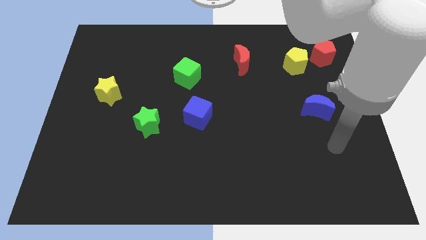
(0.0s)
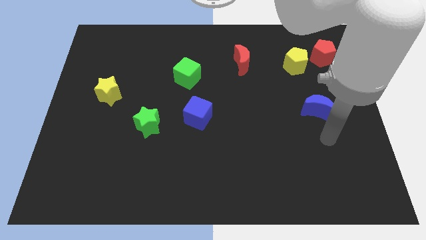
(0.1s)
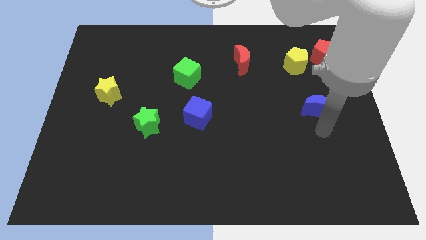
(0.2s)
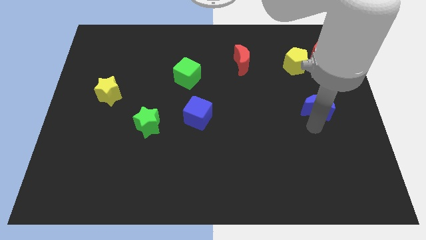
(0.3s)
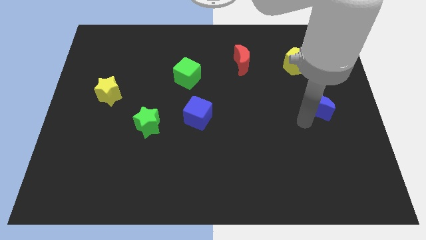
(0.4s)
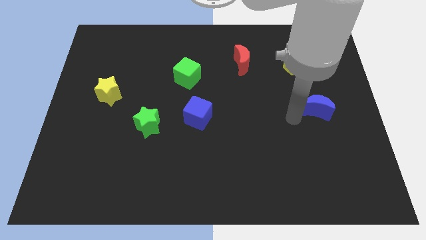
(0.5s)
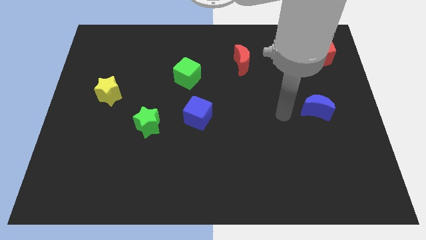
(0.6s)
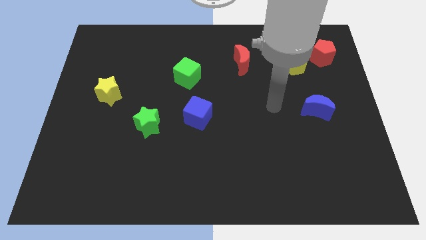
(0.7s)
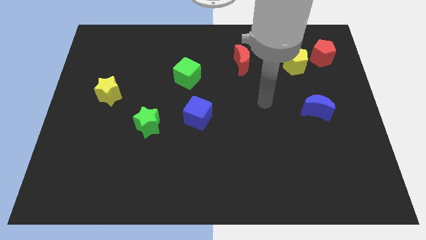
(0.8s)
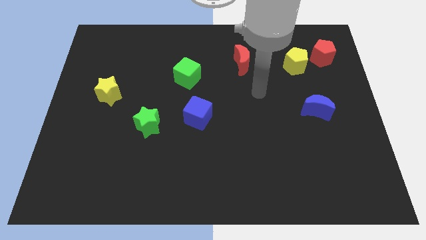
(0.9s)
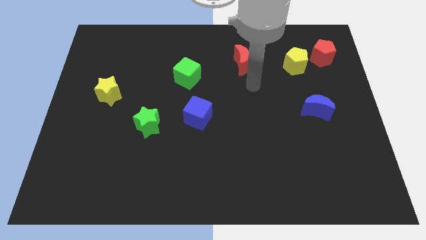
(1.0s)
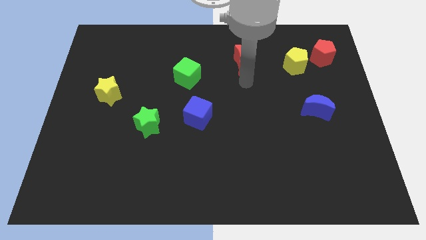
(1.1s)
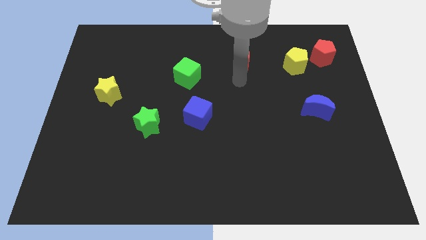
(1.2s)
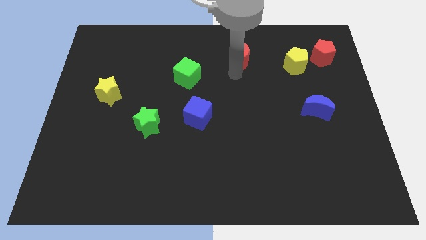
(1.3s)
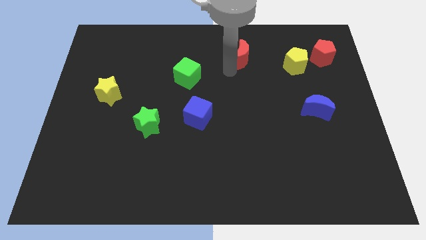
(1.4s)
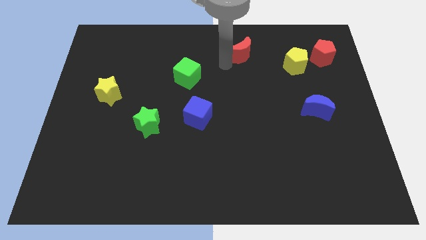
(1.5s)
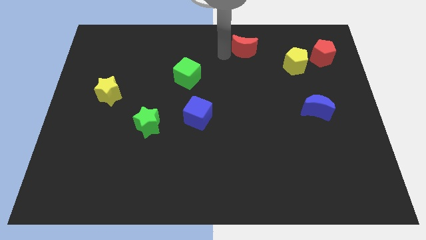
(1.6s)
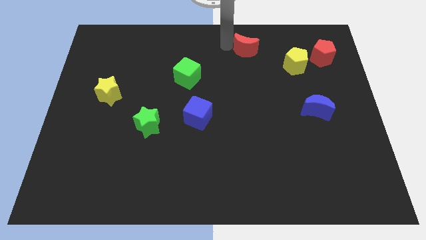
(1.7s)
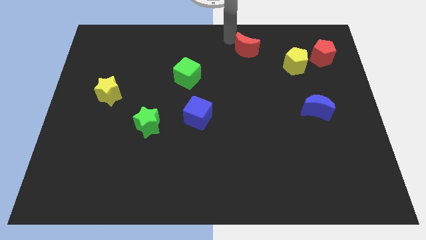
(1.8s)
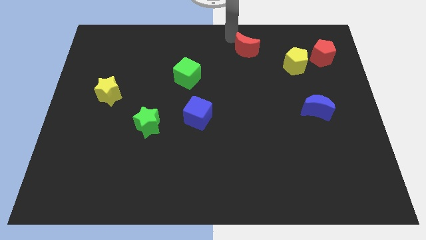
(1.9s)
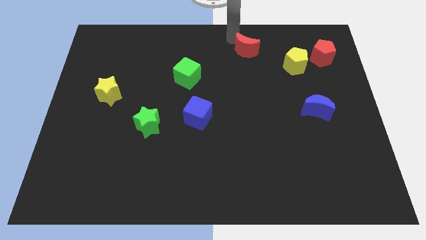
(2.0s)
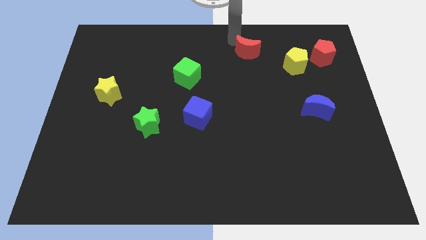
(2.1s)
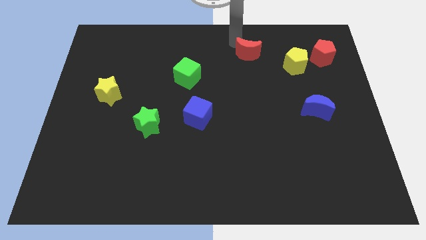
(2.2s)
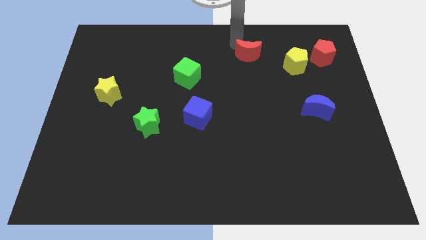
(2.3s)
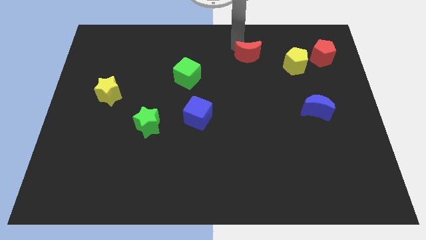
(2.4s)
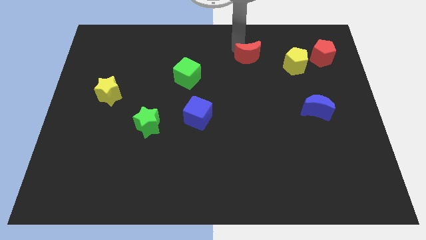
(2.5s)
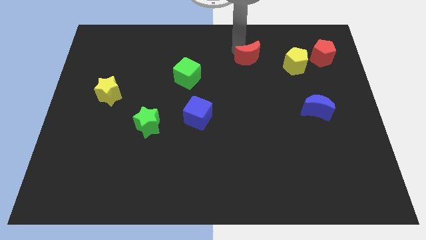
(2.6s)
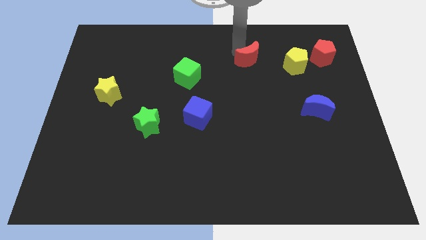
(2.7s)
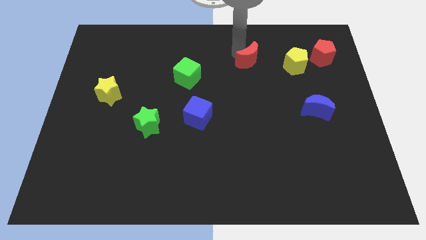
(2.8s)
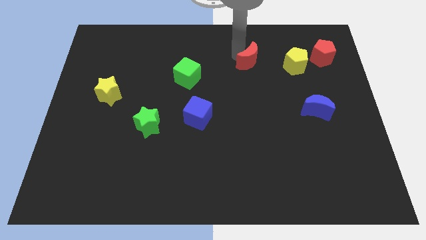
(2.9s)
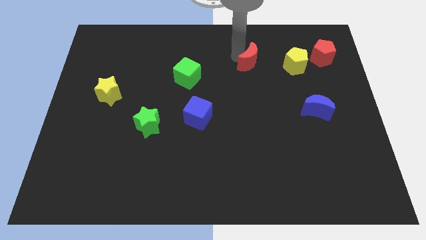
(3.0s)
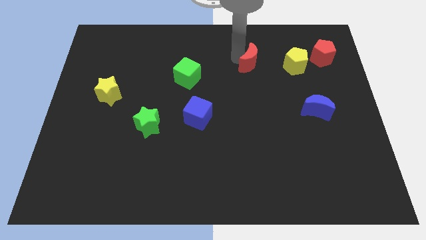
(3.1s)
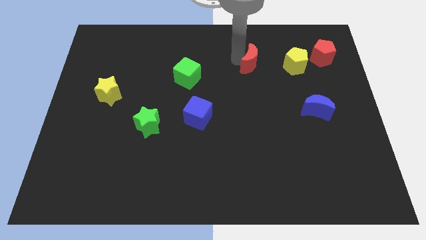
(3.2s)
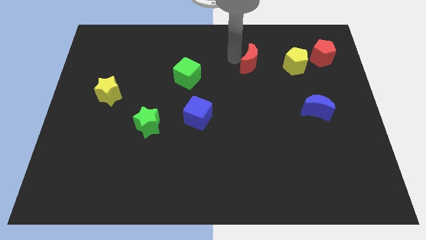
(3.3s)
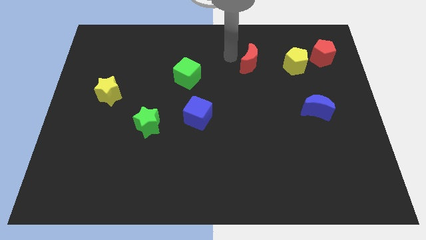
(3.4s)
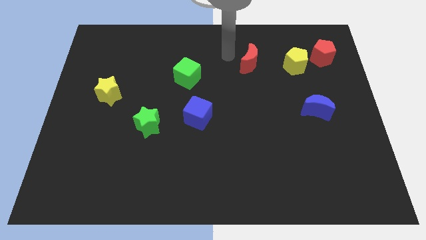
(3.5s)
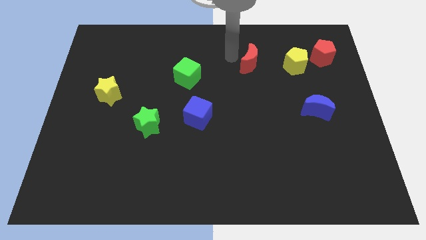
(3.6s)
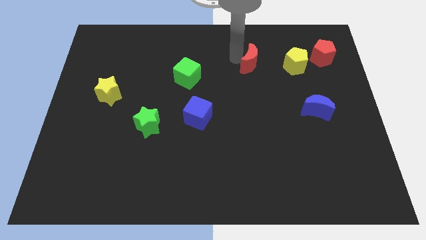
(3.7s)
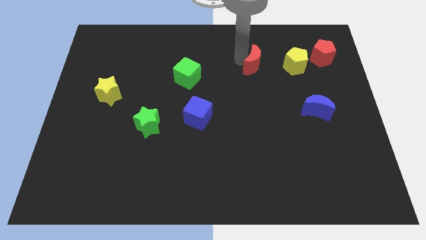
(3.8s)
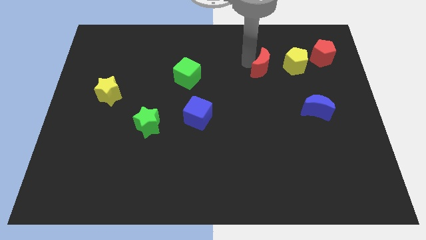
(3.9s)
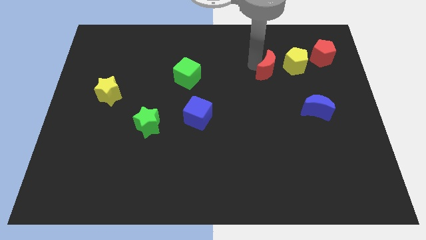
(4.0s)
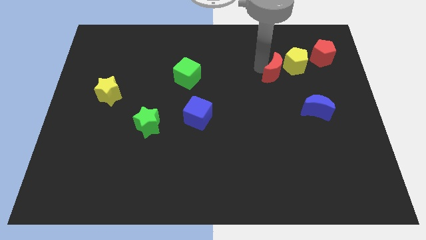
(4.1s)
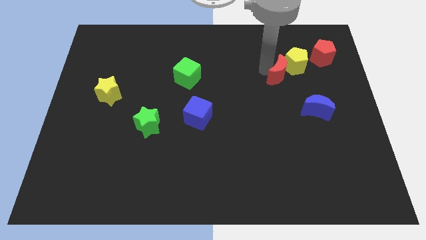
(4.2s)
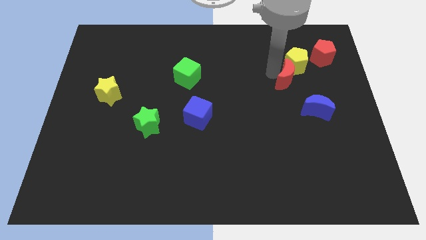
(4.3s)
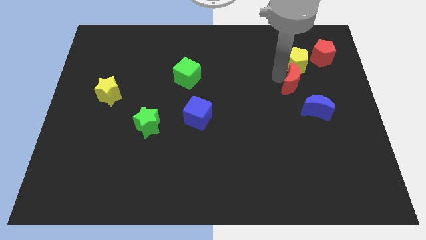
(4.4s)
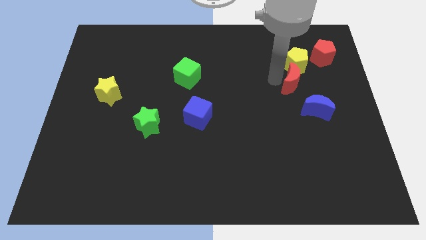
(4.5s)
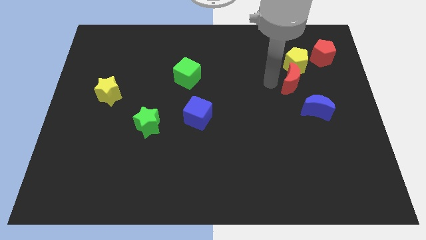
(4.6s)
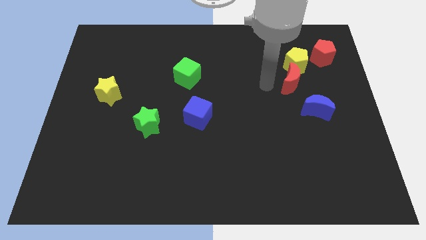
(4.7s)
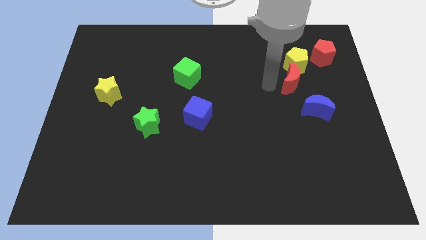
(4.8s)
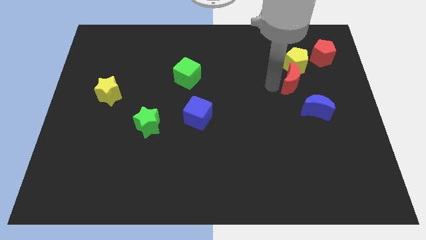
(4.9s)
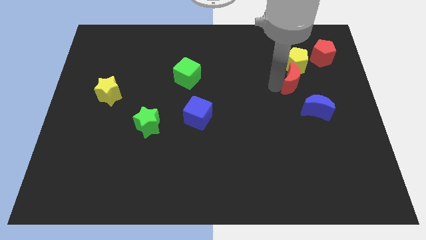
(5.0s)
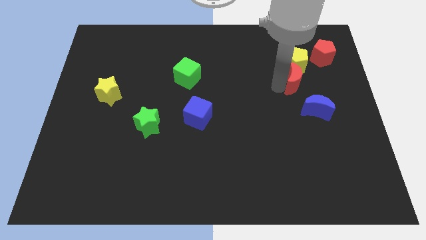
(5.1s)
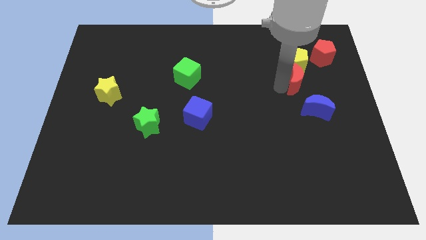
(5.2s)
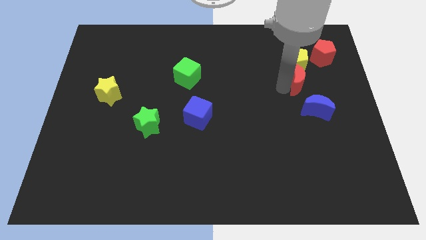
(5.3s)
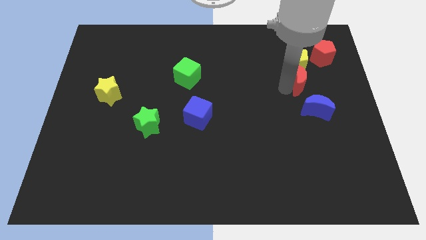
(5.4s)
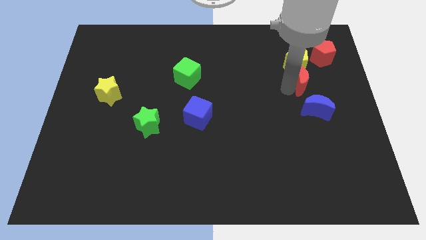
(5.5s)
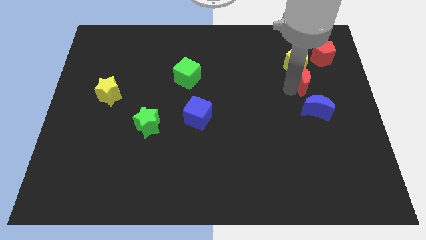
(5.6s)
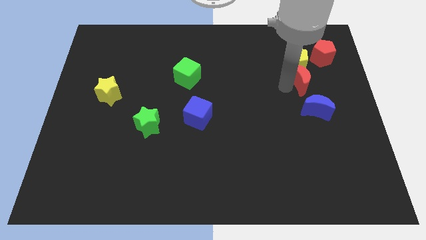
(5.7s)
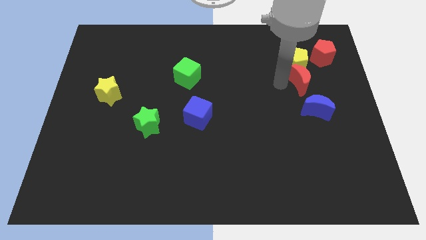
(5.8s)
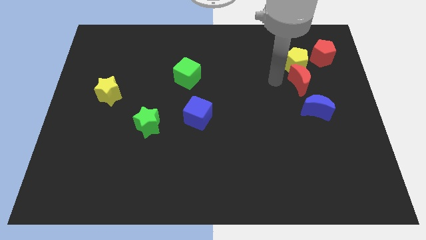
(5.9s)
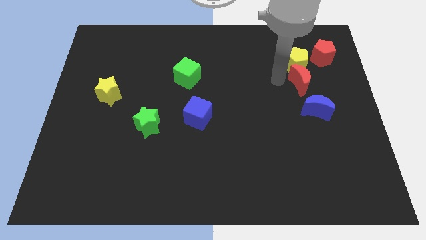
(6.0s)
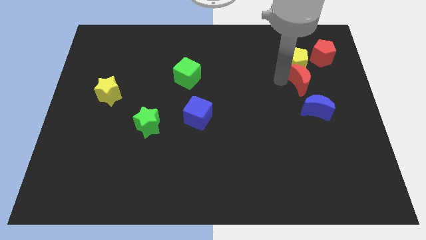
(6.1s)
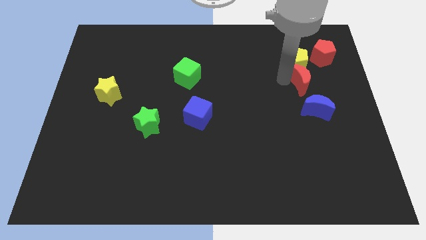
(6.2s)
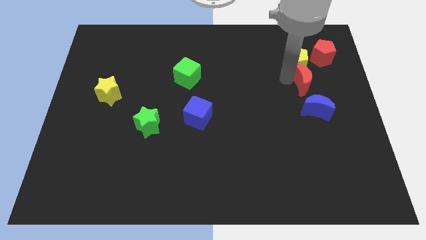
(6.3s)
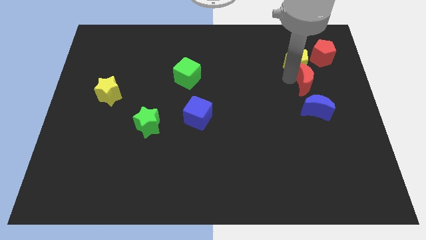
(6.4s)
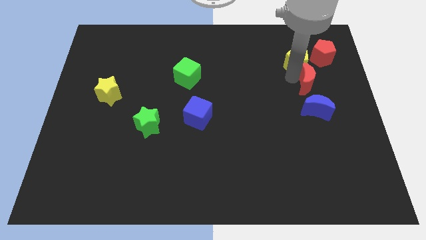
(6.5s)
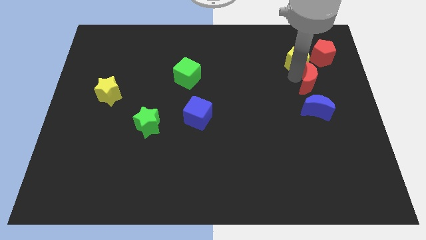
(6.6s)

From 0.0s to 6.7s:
slide the red moon below the red pentagon
